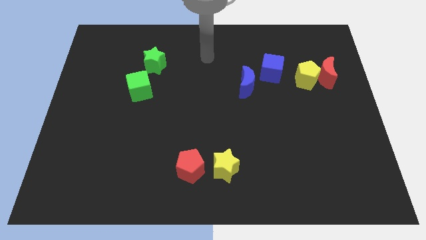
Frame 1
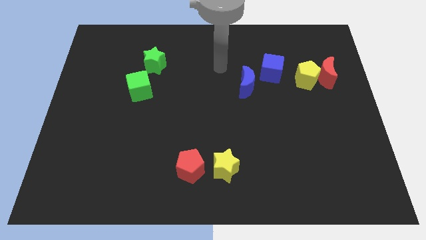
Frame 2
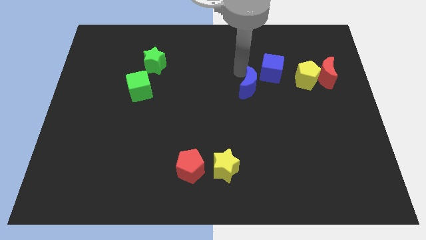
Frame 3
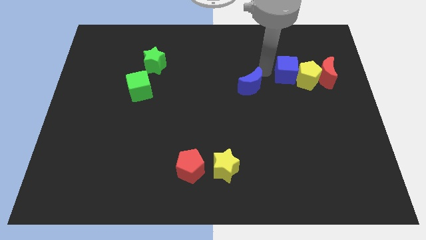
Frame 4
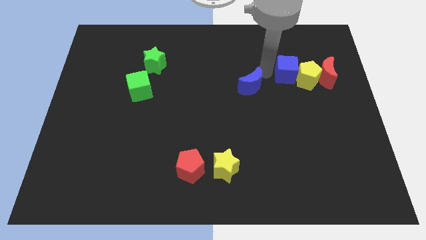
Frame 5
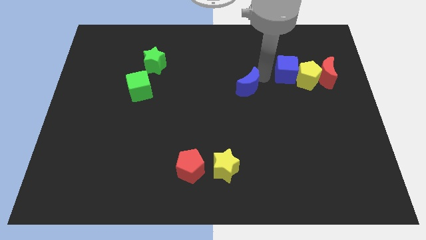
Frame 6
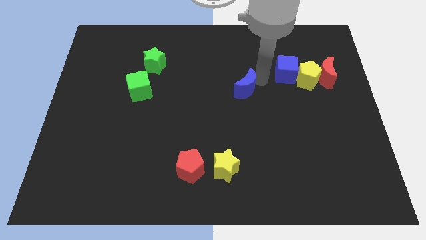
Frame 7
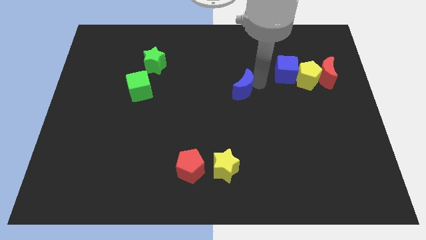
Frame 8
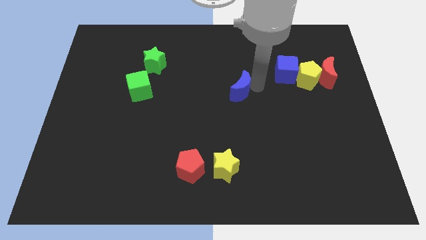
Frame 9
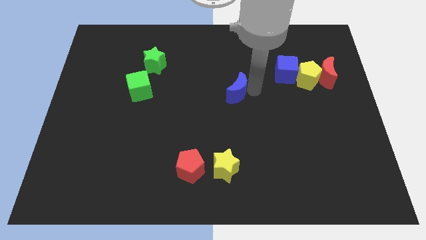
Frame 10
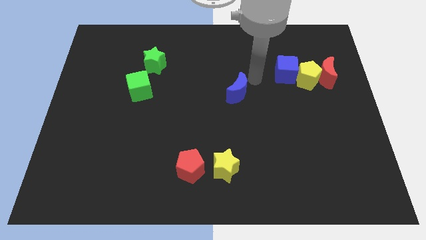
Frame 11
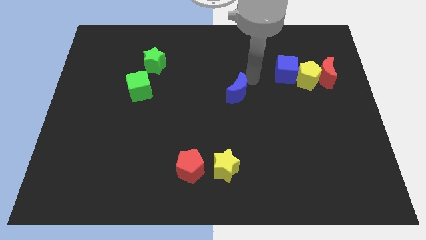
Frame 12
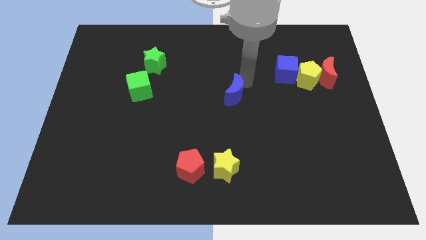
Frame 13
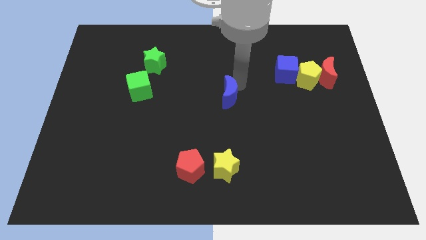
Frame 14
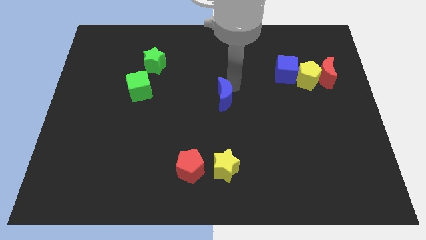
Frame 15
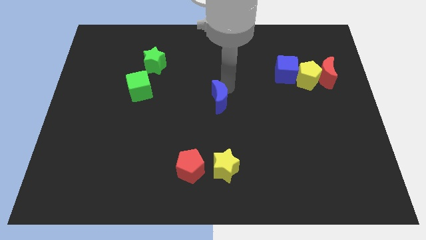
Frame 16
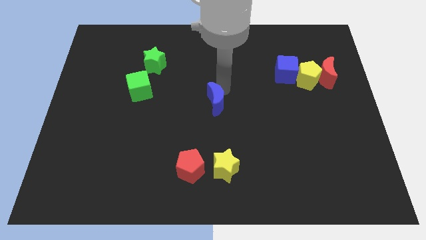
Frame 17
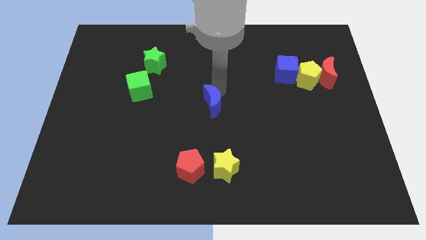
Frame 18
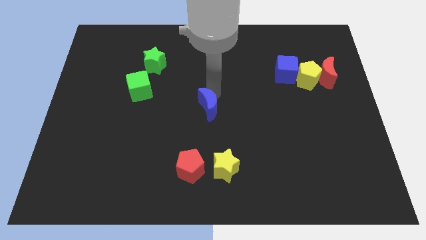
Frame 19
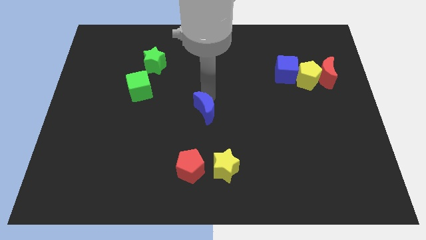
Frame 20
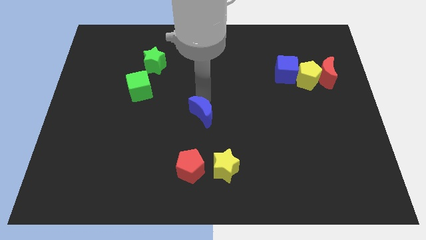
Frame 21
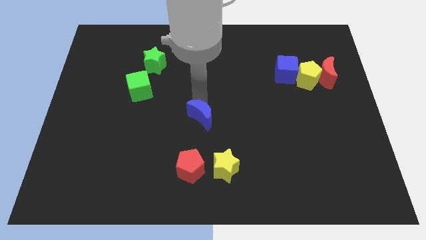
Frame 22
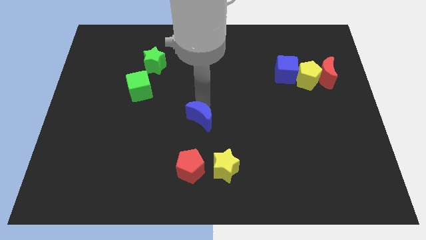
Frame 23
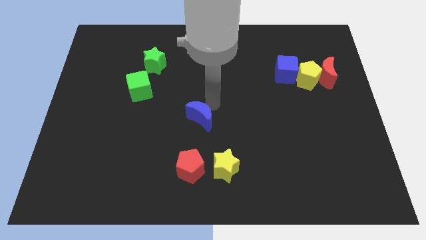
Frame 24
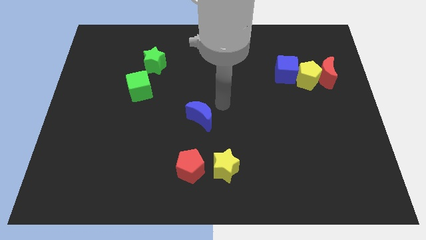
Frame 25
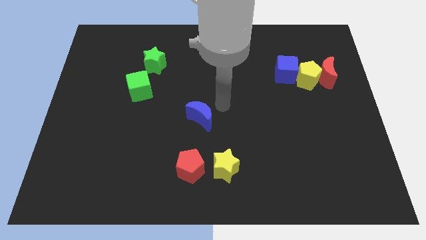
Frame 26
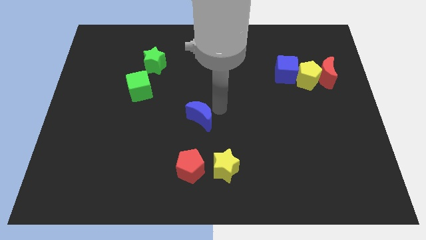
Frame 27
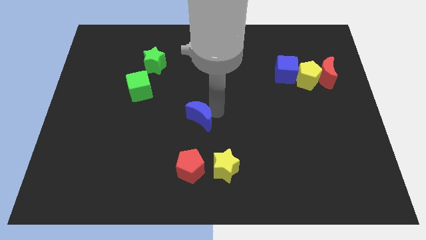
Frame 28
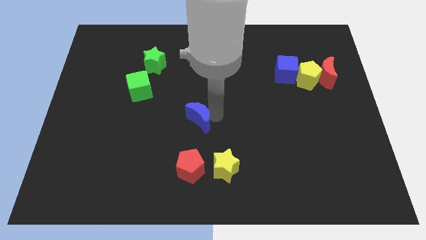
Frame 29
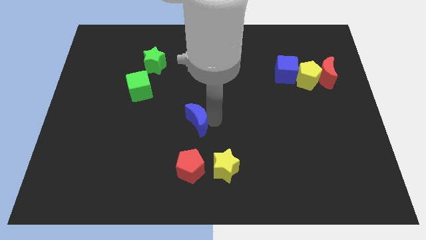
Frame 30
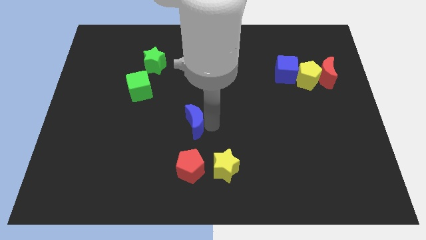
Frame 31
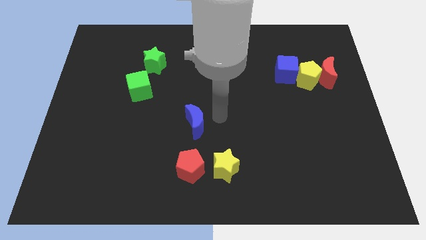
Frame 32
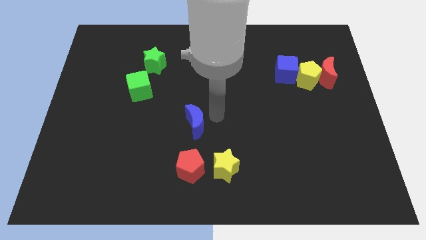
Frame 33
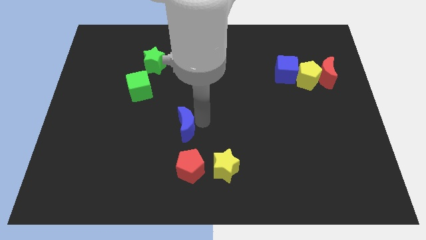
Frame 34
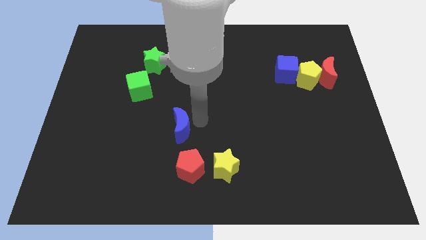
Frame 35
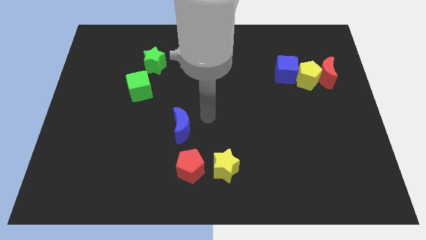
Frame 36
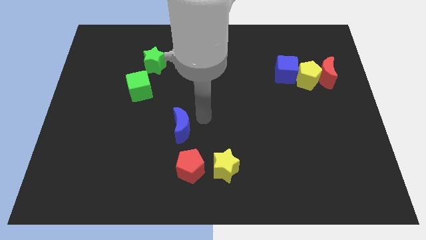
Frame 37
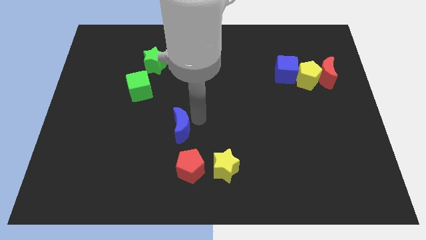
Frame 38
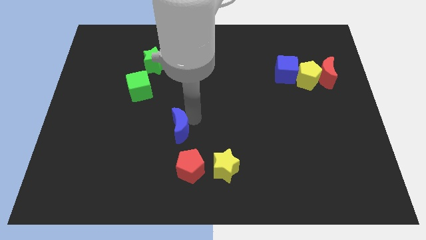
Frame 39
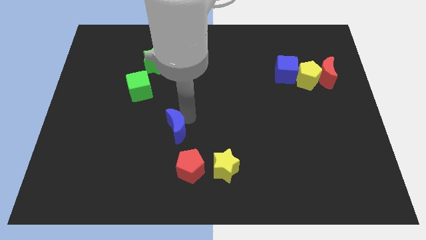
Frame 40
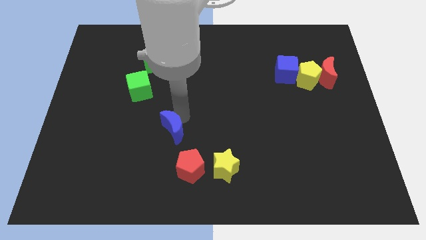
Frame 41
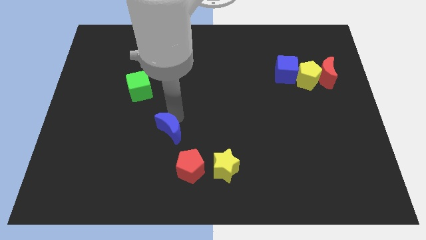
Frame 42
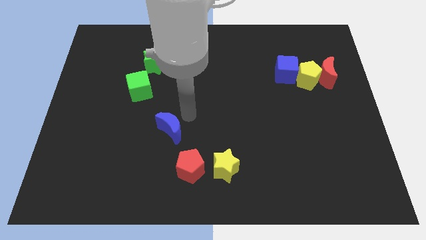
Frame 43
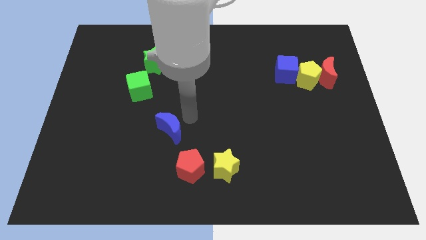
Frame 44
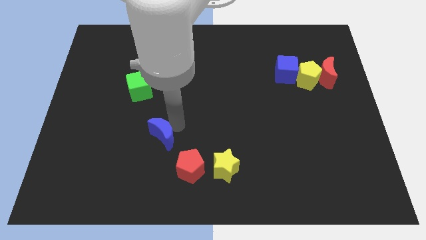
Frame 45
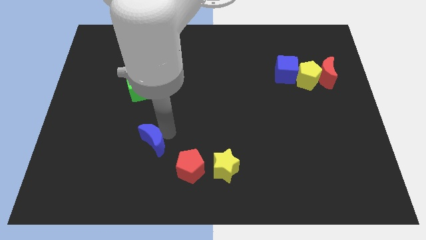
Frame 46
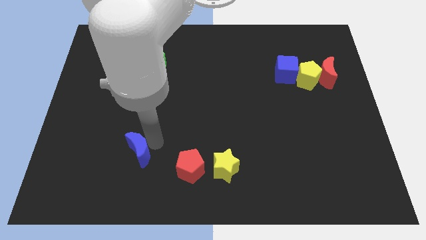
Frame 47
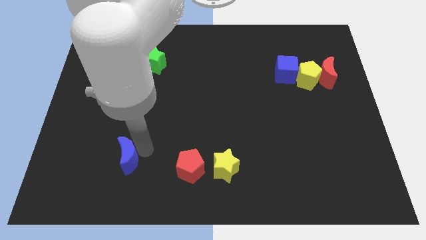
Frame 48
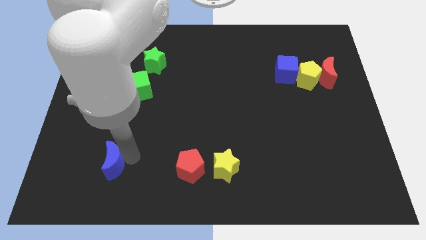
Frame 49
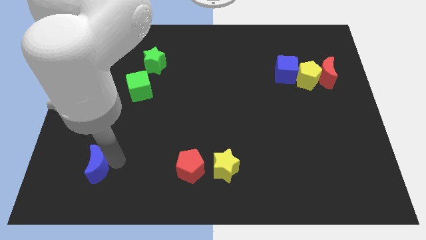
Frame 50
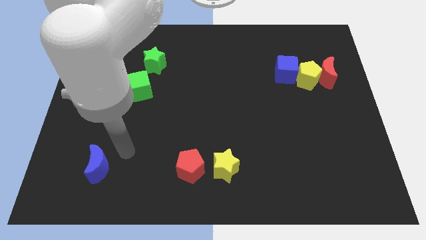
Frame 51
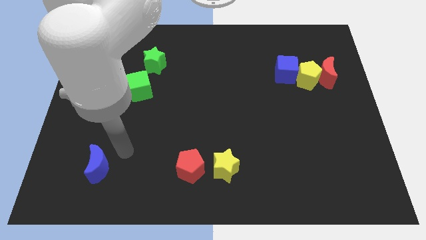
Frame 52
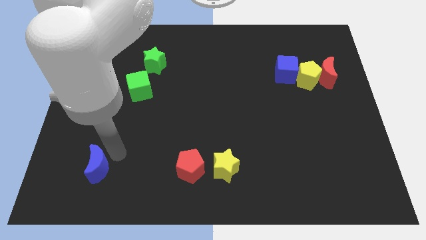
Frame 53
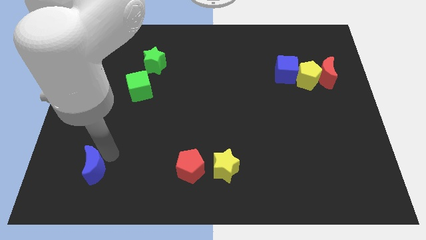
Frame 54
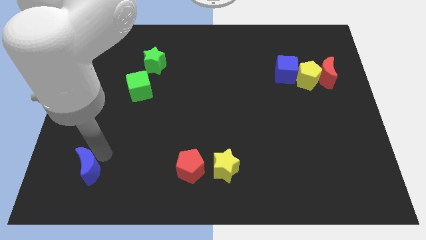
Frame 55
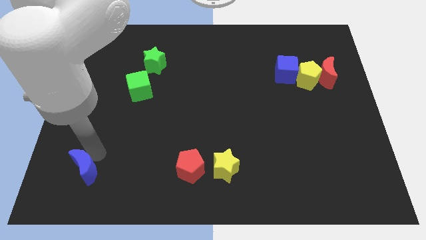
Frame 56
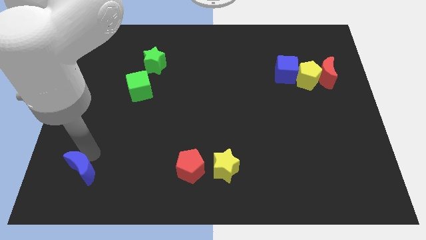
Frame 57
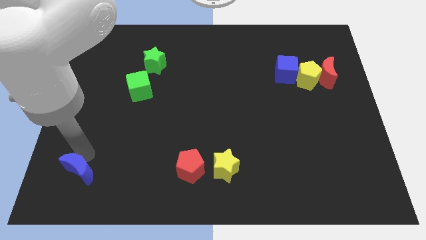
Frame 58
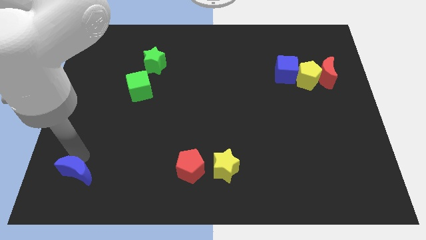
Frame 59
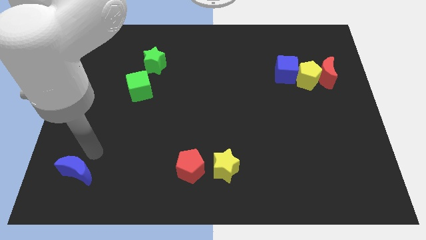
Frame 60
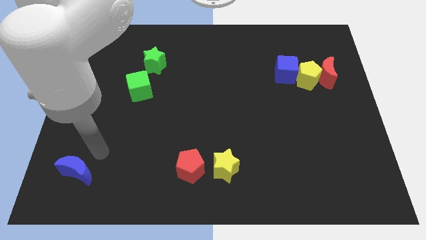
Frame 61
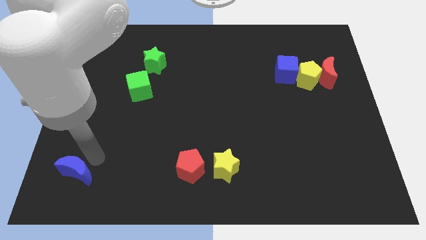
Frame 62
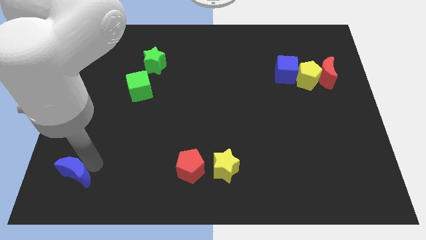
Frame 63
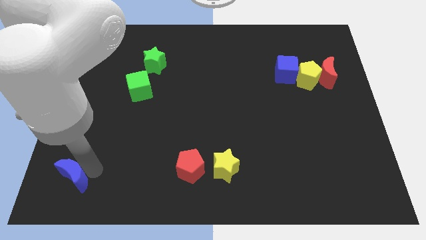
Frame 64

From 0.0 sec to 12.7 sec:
slide the blue moon to the bottom left
